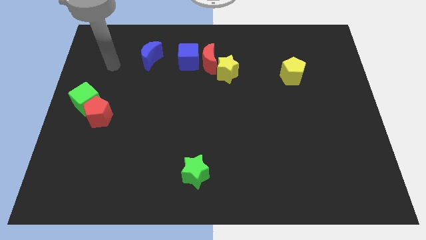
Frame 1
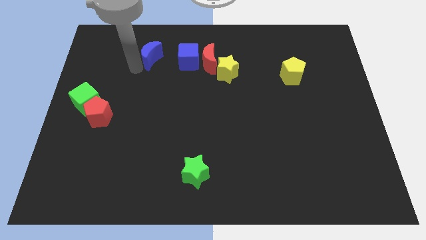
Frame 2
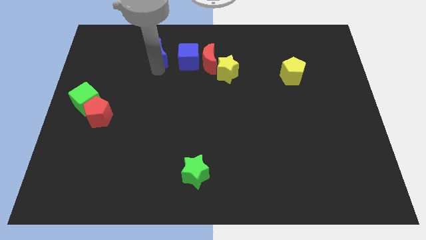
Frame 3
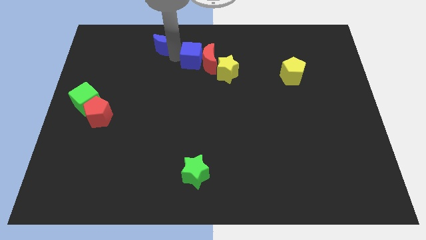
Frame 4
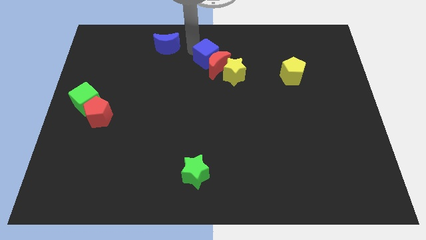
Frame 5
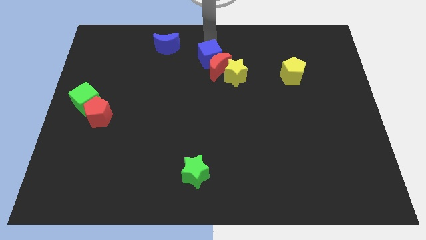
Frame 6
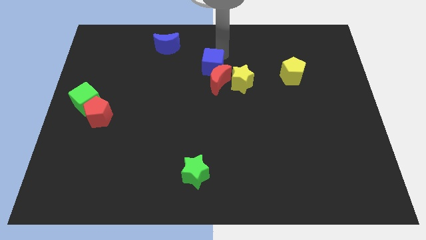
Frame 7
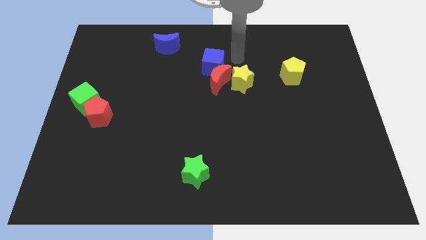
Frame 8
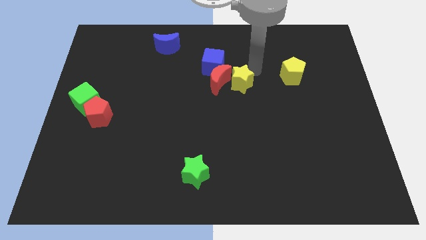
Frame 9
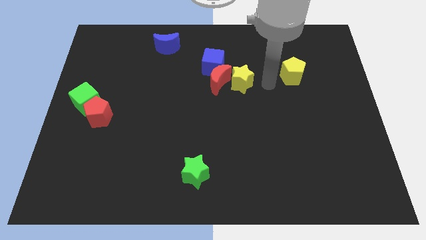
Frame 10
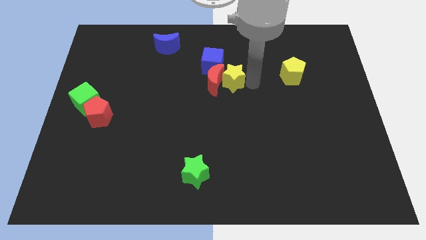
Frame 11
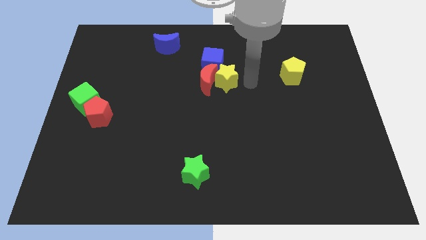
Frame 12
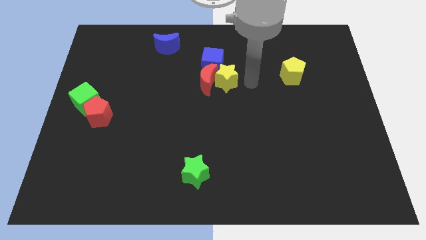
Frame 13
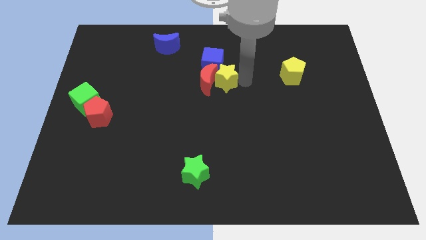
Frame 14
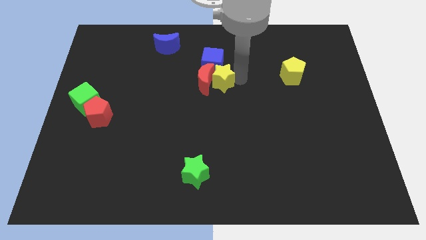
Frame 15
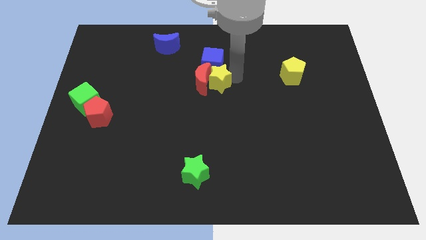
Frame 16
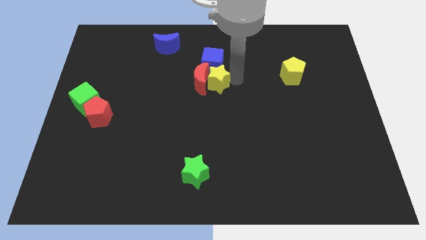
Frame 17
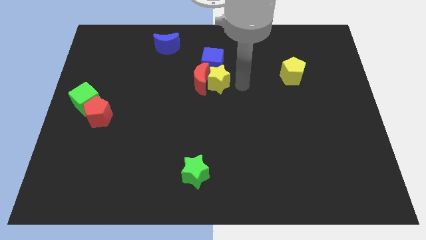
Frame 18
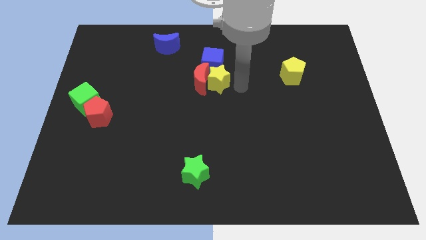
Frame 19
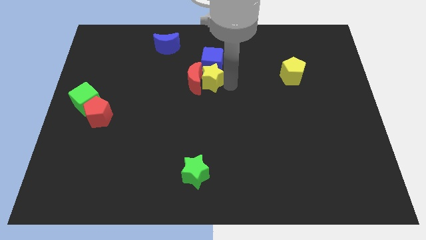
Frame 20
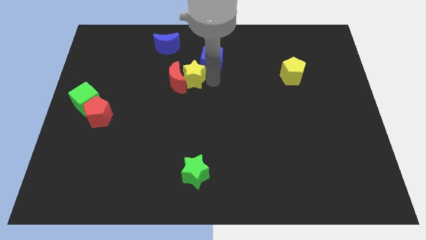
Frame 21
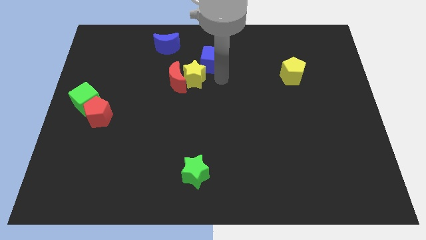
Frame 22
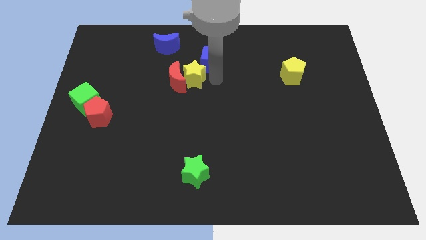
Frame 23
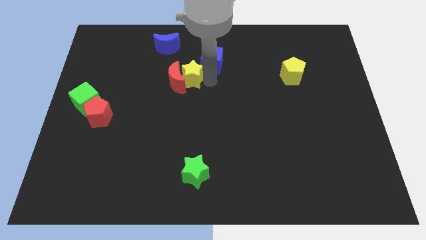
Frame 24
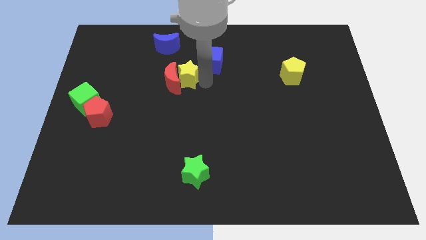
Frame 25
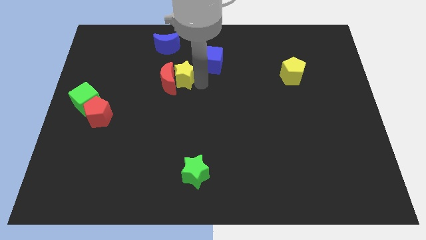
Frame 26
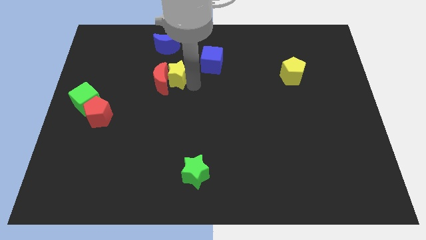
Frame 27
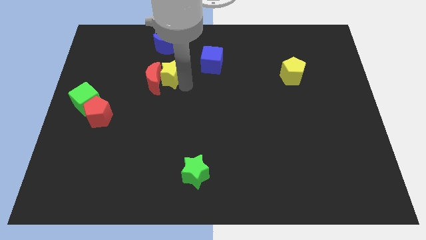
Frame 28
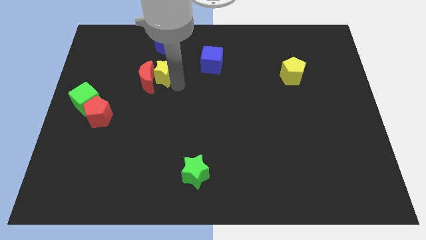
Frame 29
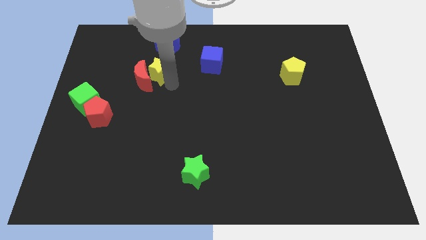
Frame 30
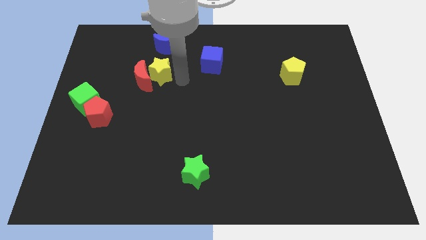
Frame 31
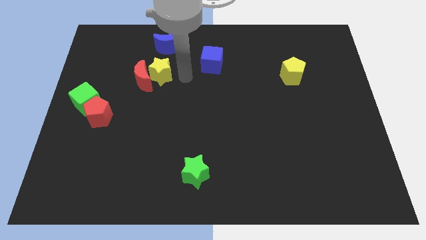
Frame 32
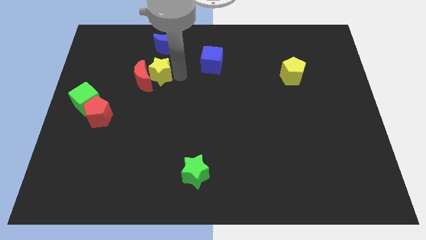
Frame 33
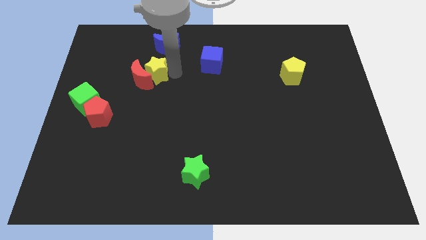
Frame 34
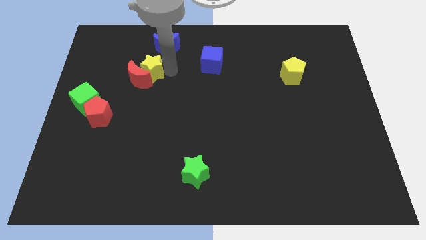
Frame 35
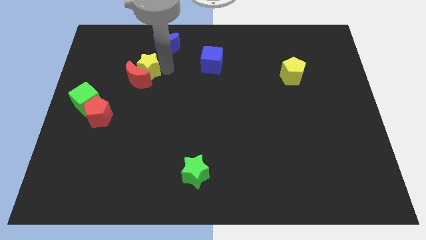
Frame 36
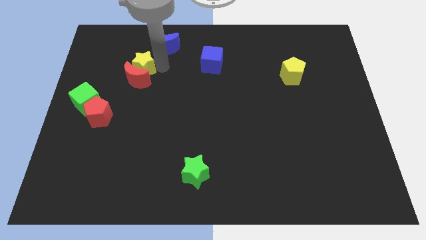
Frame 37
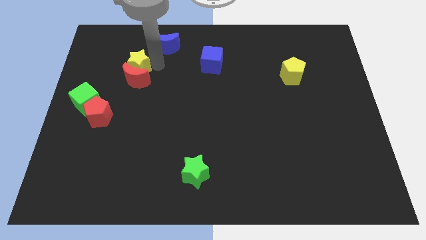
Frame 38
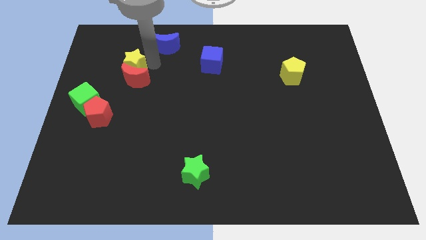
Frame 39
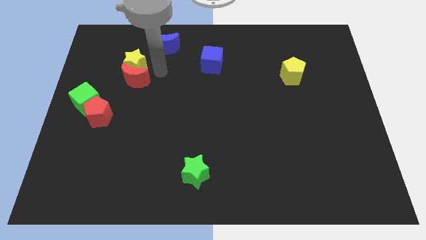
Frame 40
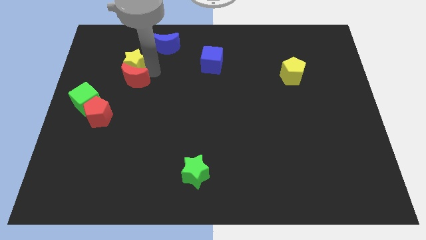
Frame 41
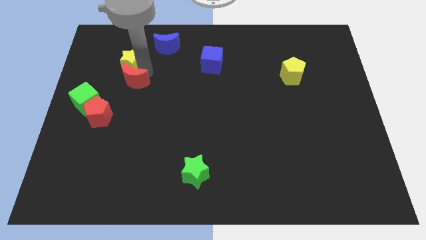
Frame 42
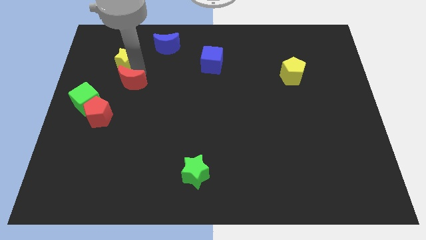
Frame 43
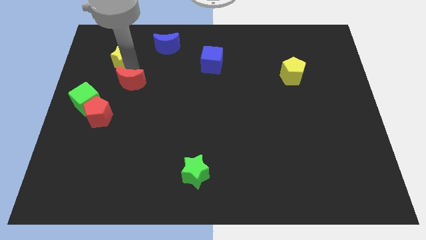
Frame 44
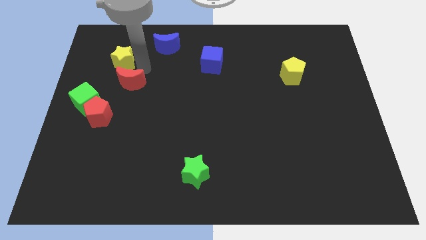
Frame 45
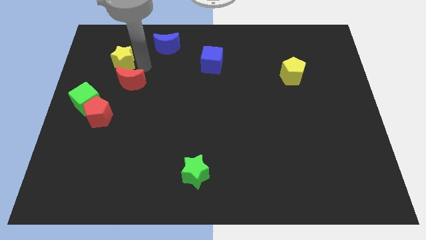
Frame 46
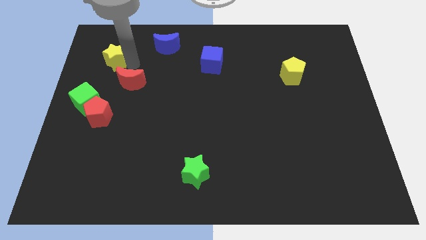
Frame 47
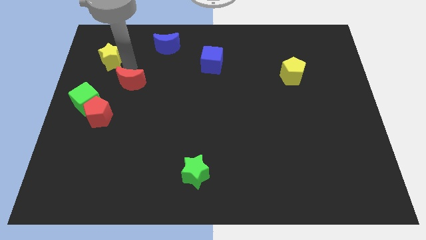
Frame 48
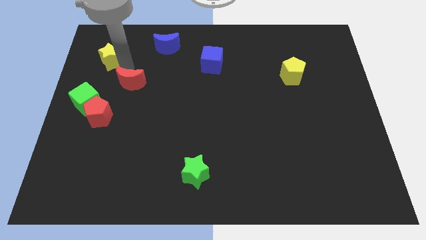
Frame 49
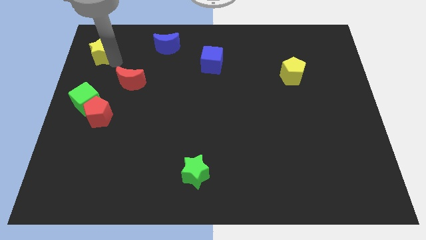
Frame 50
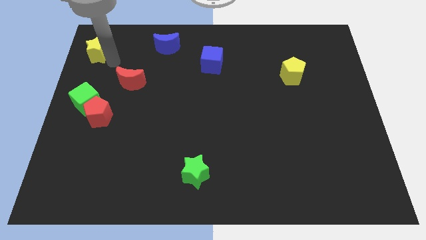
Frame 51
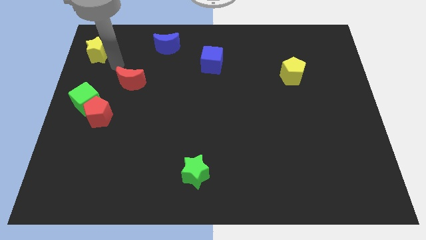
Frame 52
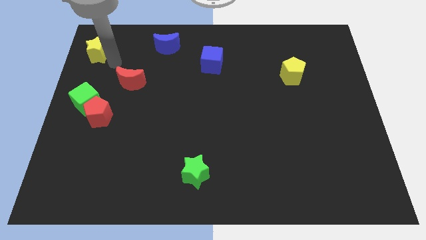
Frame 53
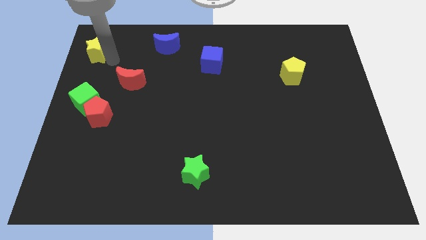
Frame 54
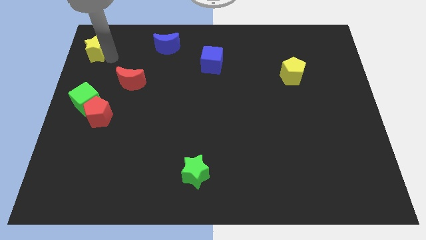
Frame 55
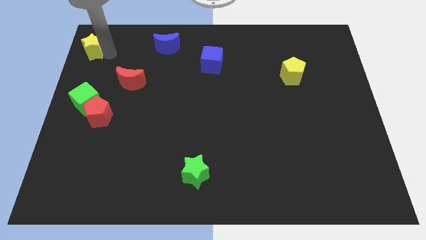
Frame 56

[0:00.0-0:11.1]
push the yellow star to the top left corner

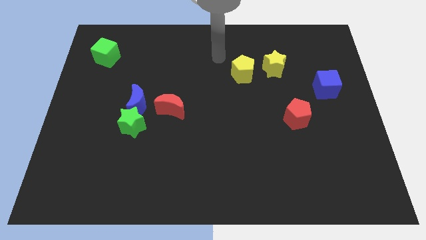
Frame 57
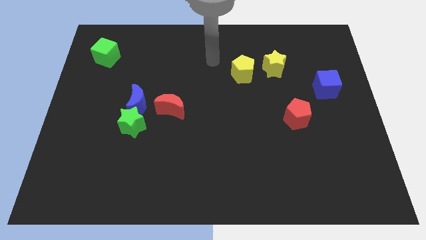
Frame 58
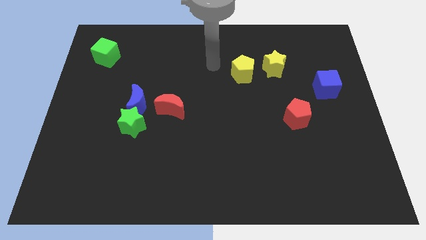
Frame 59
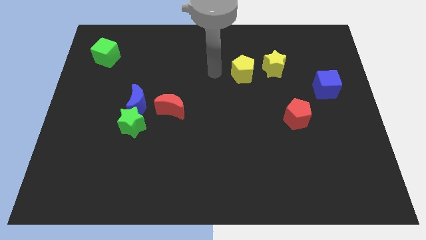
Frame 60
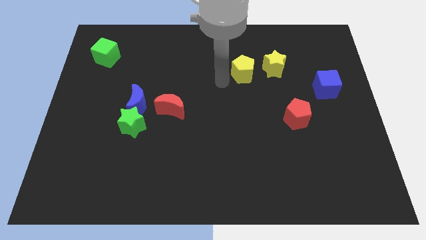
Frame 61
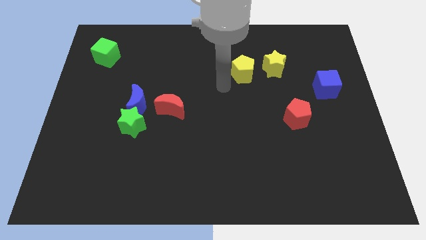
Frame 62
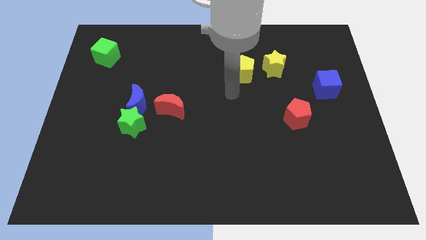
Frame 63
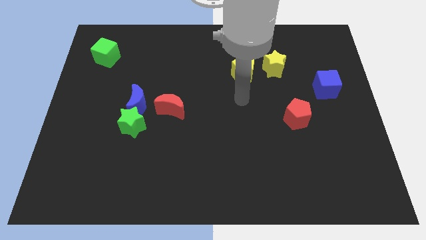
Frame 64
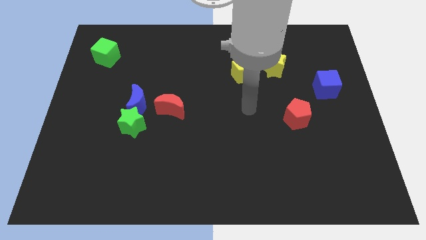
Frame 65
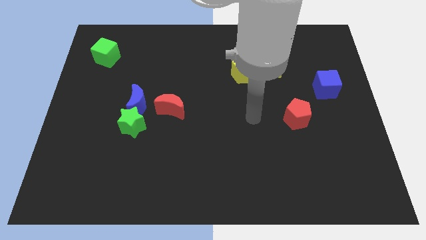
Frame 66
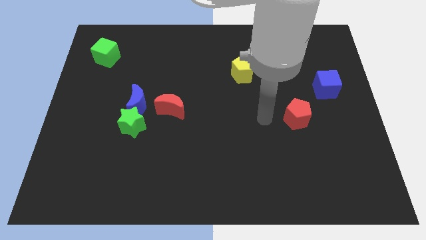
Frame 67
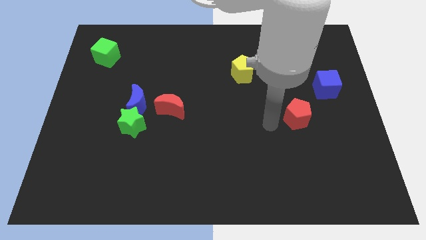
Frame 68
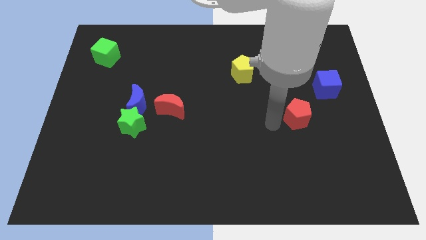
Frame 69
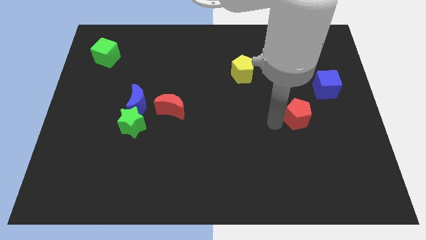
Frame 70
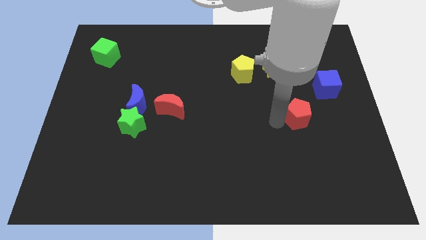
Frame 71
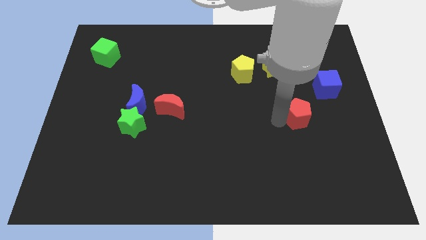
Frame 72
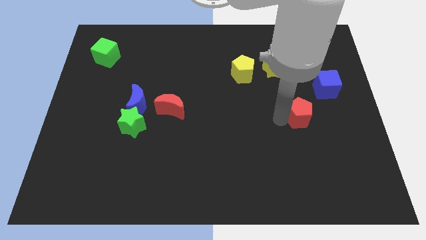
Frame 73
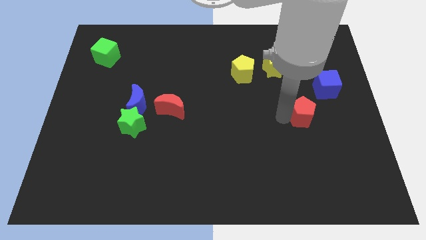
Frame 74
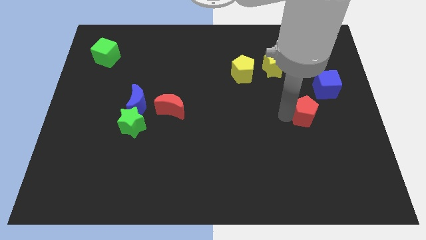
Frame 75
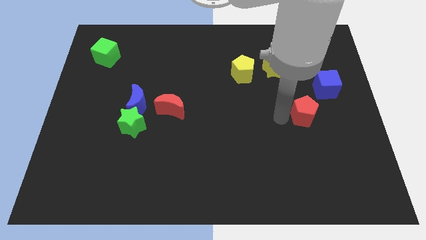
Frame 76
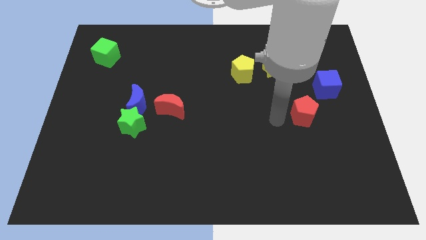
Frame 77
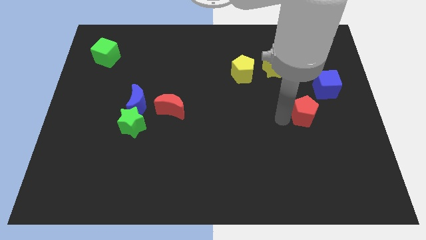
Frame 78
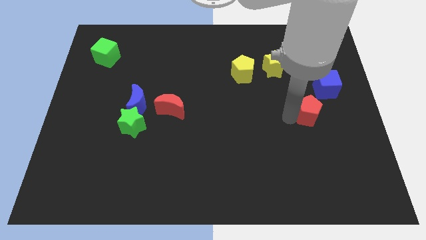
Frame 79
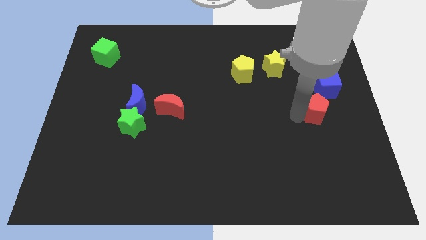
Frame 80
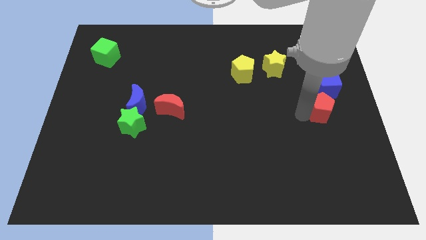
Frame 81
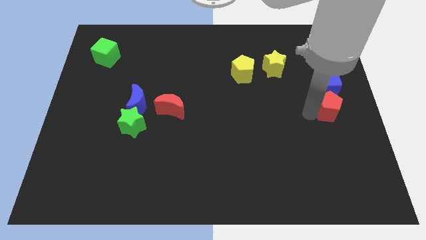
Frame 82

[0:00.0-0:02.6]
put the red pentagon to the center right
